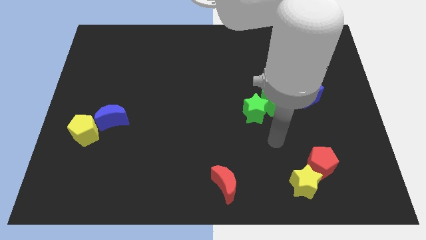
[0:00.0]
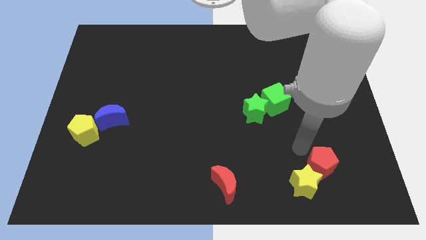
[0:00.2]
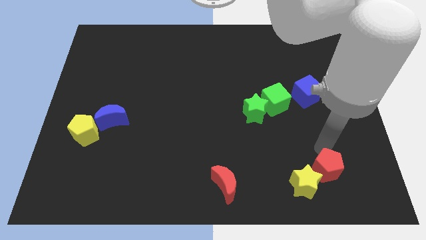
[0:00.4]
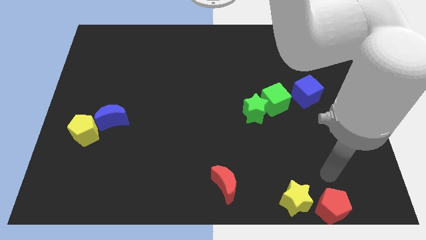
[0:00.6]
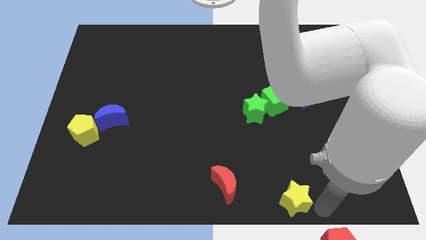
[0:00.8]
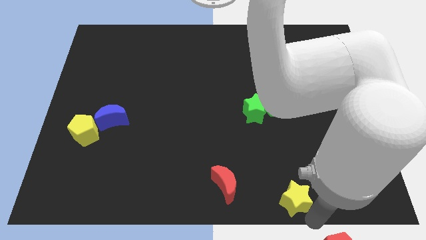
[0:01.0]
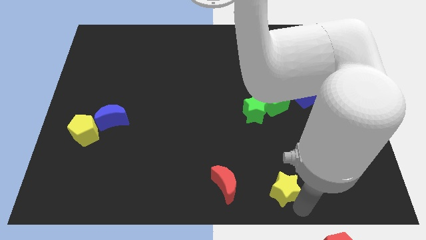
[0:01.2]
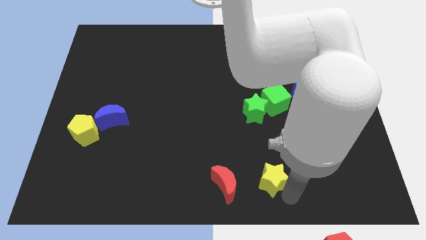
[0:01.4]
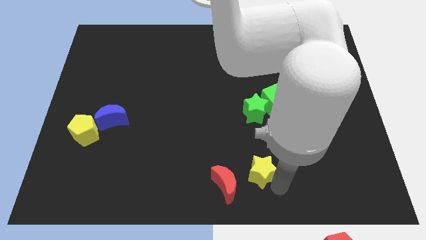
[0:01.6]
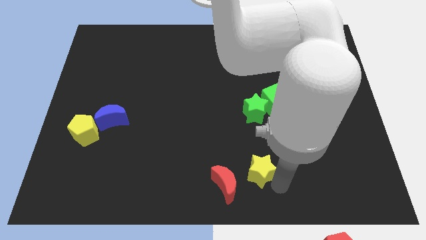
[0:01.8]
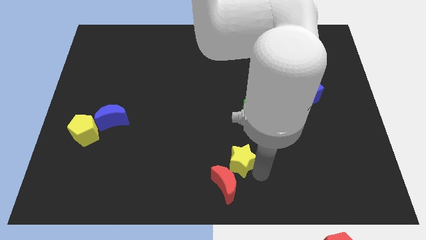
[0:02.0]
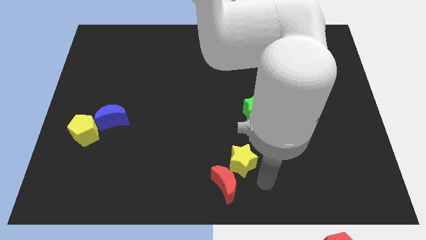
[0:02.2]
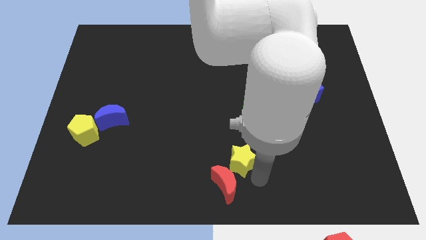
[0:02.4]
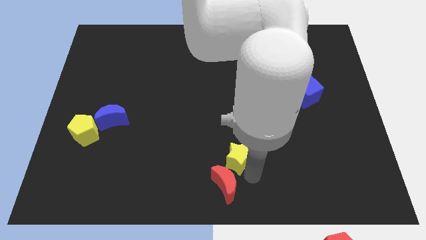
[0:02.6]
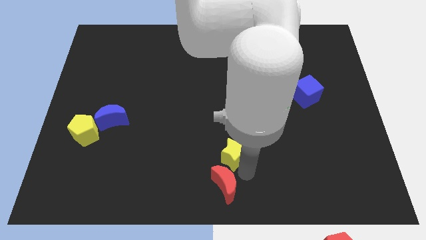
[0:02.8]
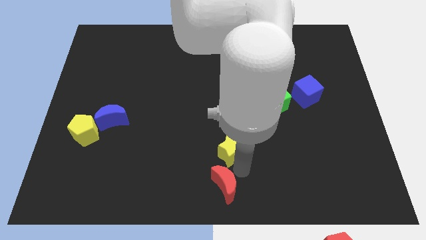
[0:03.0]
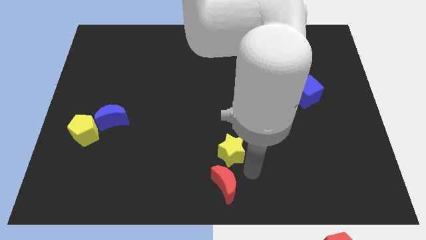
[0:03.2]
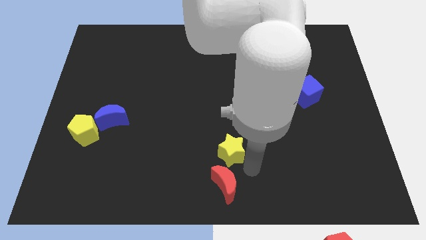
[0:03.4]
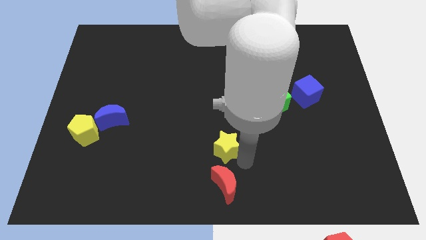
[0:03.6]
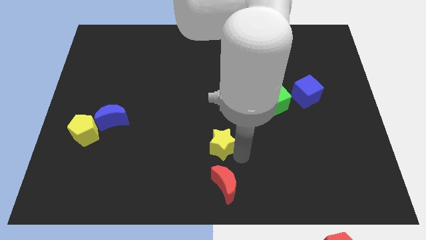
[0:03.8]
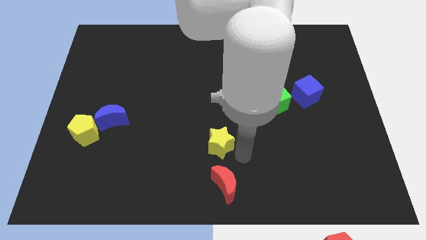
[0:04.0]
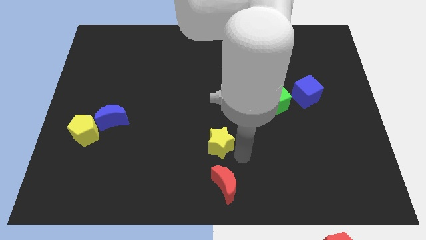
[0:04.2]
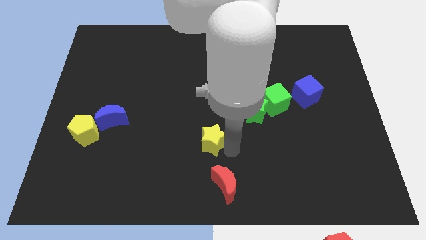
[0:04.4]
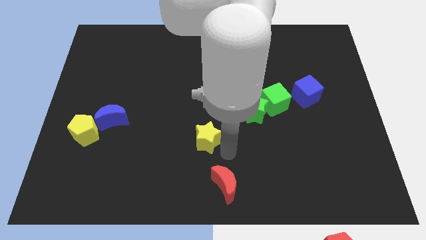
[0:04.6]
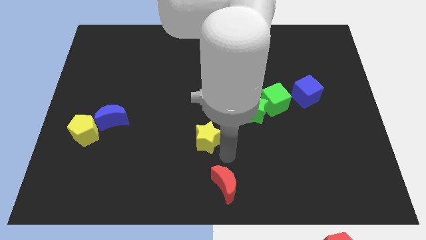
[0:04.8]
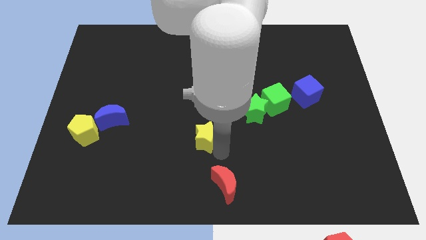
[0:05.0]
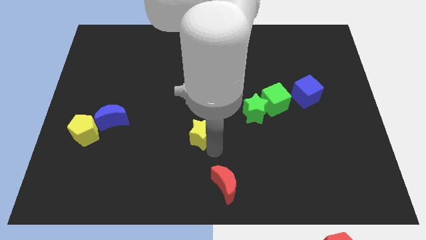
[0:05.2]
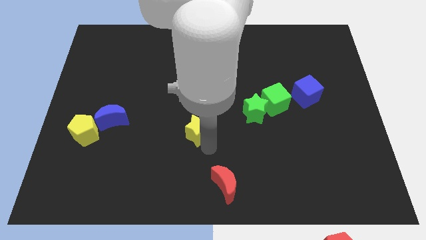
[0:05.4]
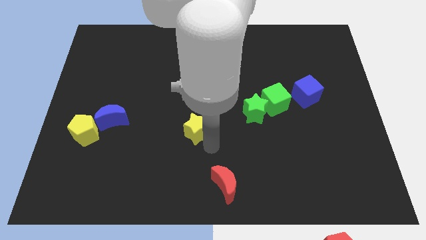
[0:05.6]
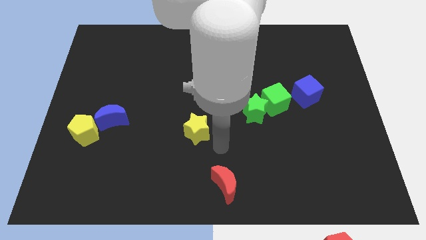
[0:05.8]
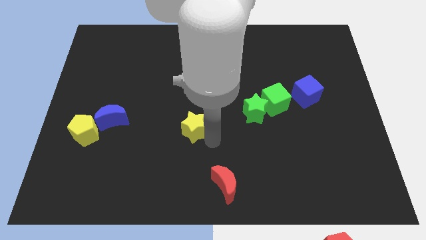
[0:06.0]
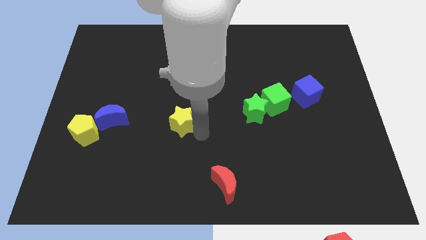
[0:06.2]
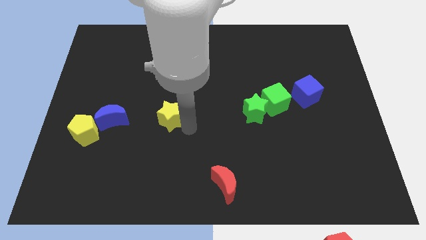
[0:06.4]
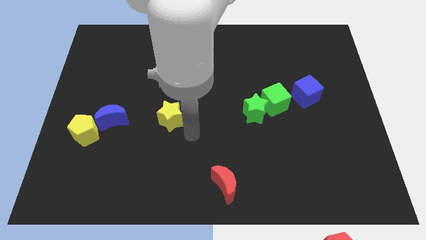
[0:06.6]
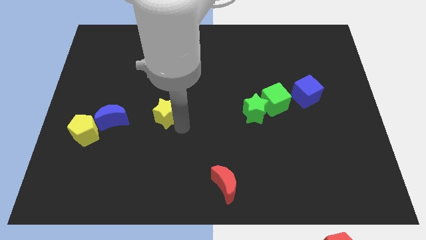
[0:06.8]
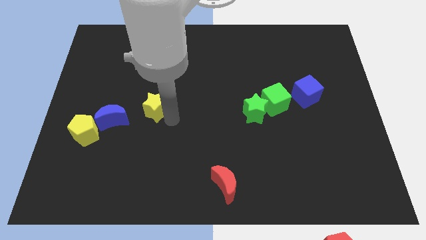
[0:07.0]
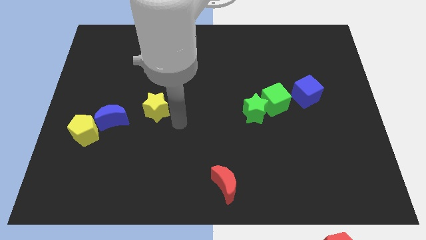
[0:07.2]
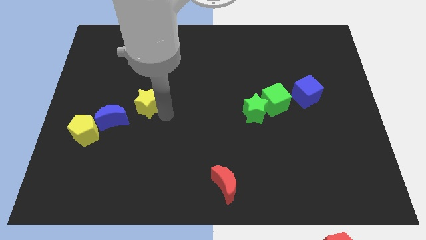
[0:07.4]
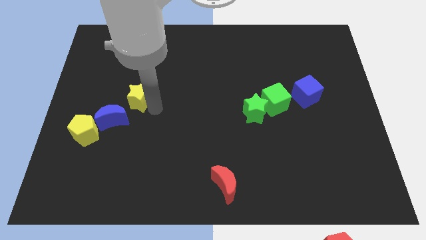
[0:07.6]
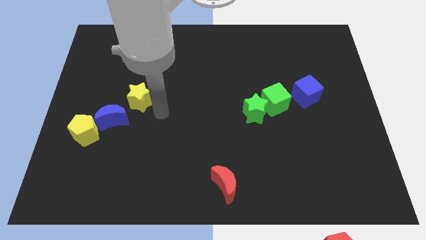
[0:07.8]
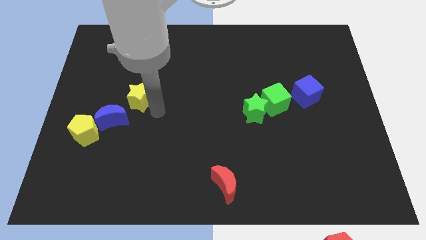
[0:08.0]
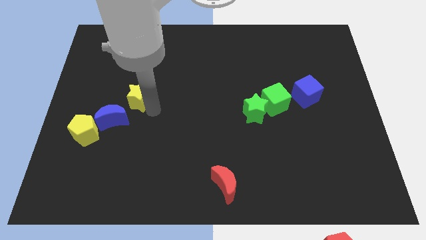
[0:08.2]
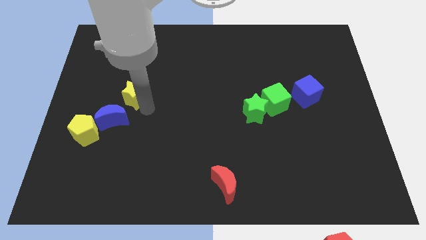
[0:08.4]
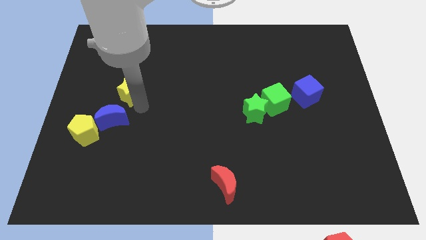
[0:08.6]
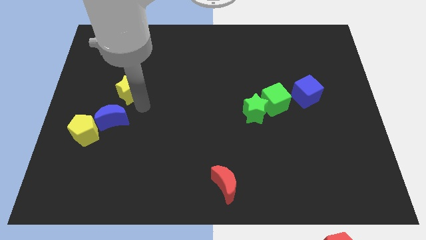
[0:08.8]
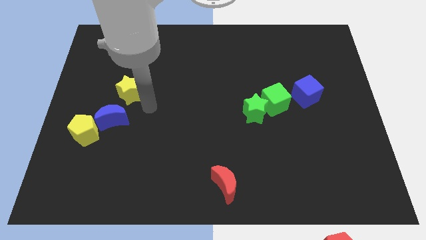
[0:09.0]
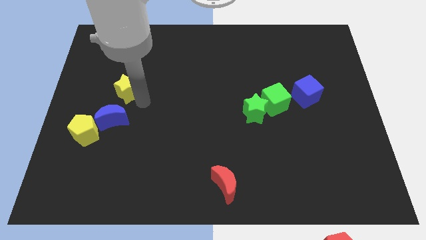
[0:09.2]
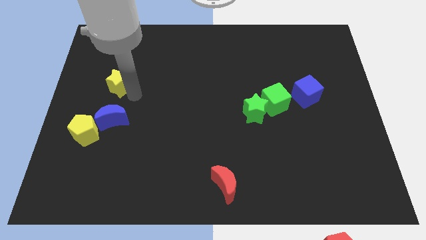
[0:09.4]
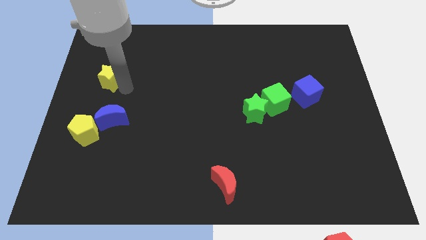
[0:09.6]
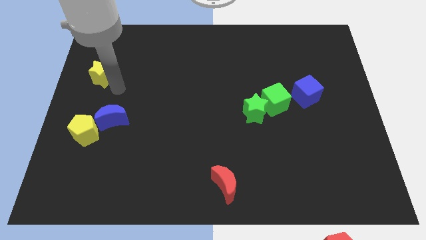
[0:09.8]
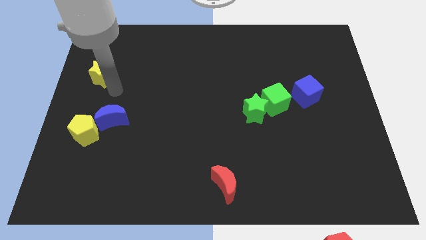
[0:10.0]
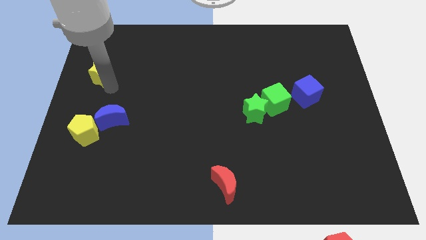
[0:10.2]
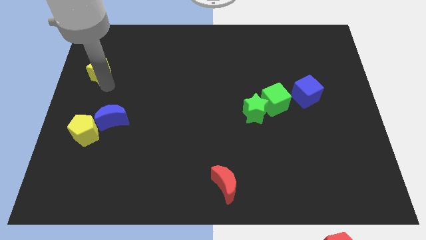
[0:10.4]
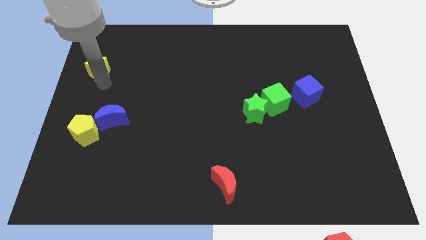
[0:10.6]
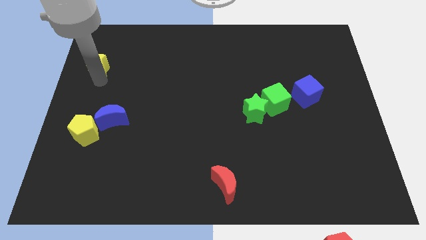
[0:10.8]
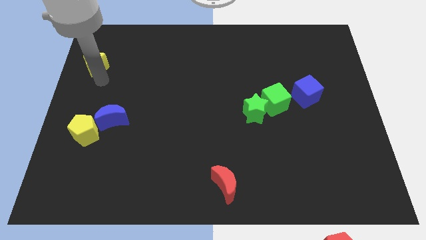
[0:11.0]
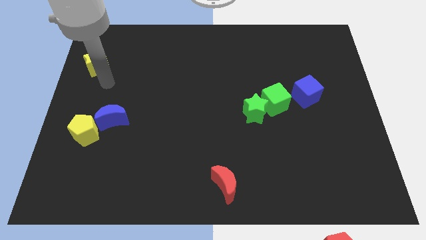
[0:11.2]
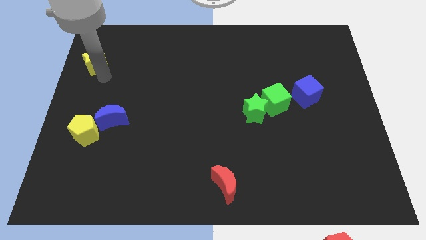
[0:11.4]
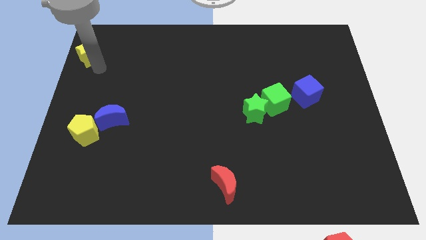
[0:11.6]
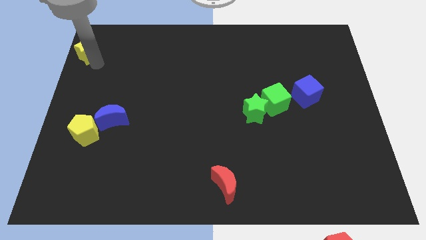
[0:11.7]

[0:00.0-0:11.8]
put the yellow star to the upper left corner

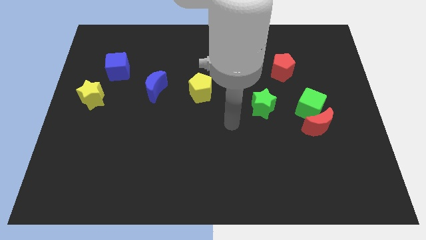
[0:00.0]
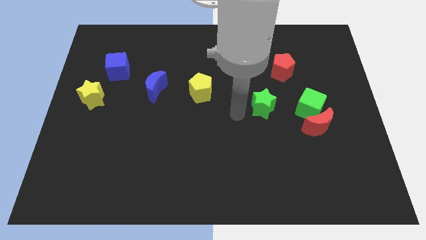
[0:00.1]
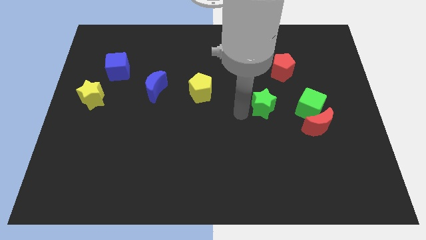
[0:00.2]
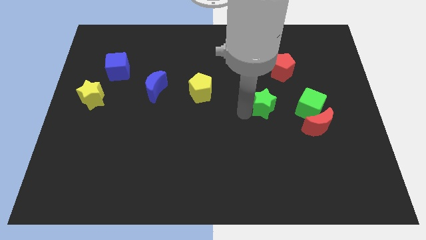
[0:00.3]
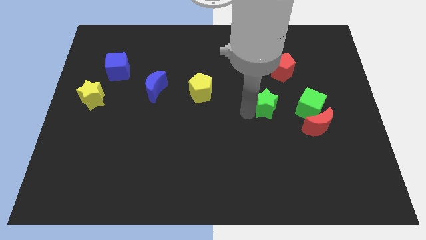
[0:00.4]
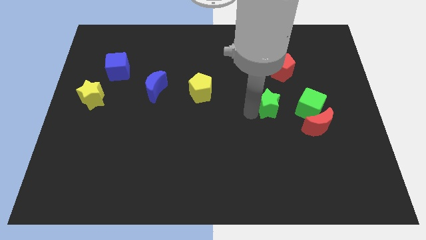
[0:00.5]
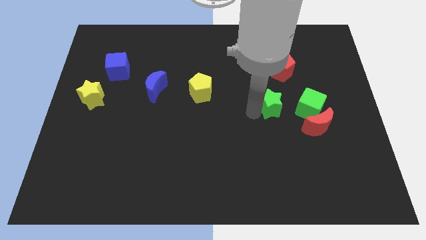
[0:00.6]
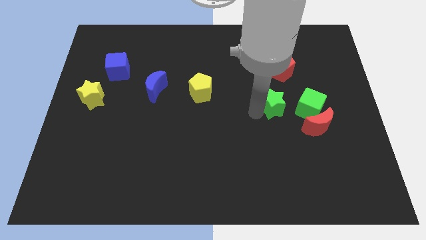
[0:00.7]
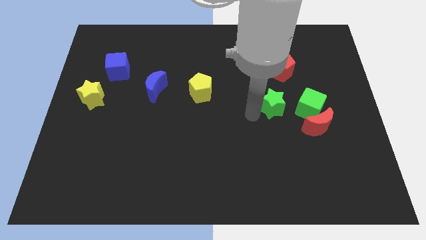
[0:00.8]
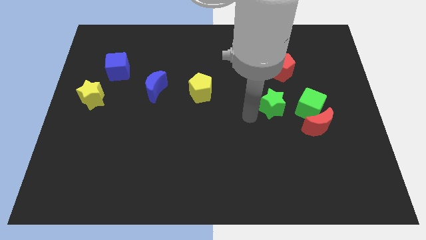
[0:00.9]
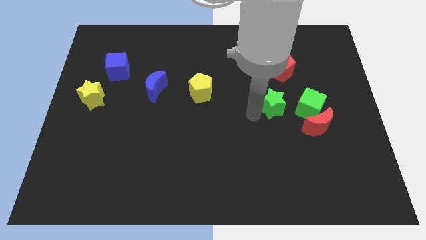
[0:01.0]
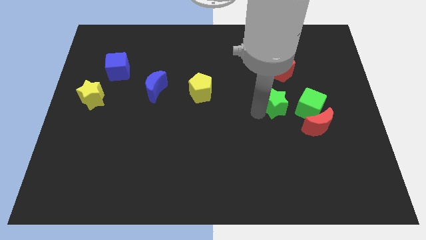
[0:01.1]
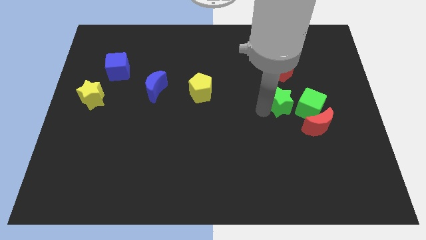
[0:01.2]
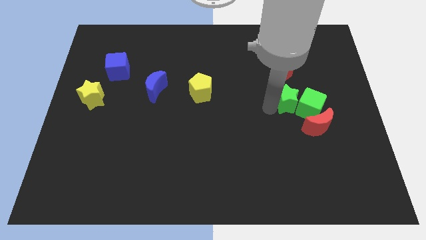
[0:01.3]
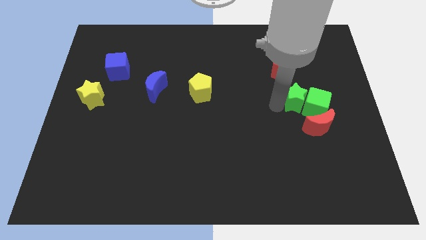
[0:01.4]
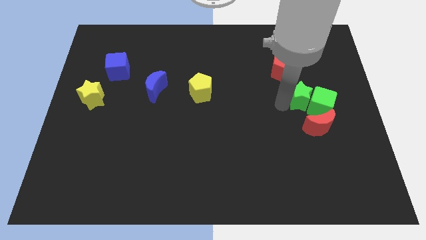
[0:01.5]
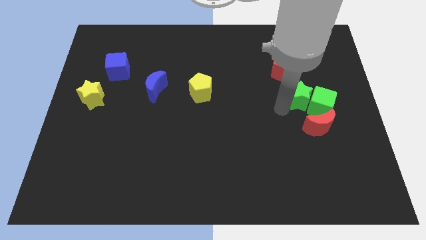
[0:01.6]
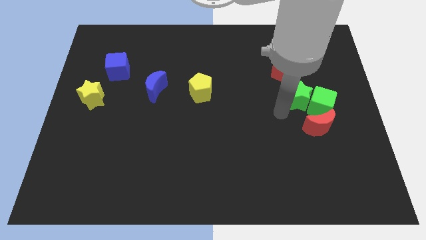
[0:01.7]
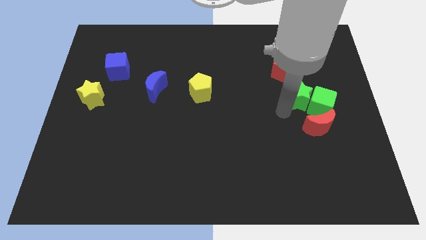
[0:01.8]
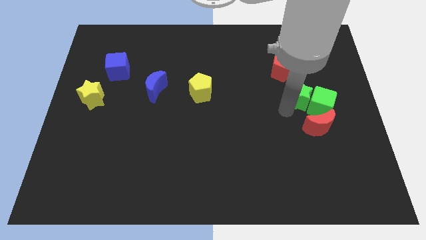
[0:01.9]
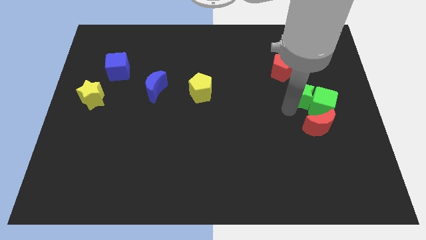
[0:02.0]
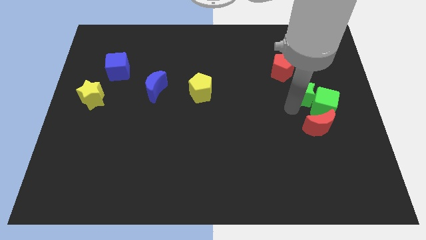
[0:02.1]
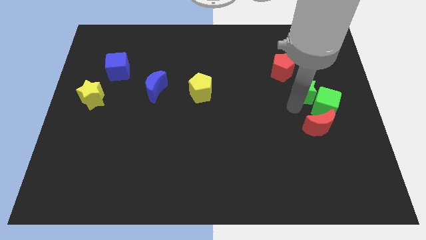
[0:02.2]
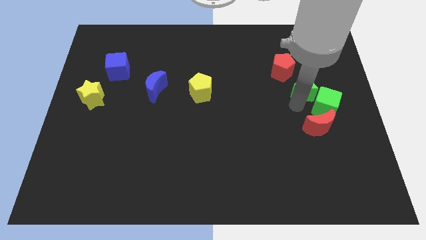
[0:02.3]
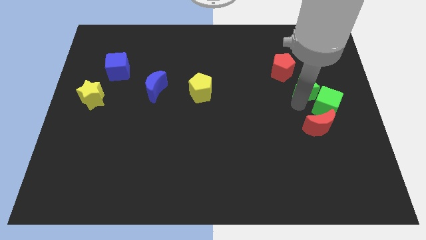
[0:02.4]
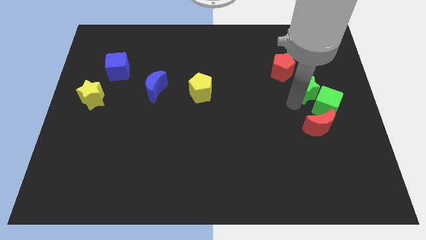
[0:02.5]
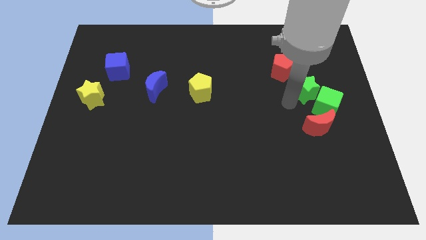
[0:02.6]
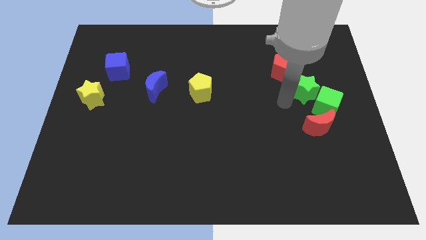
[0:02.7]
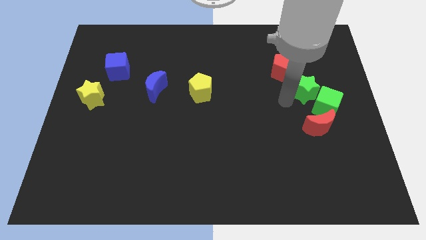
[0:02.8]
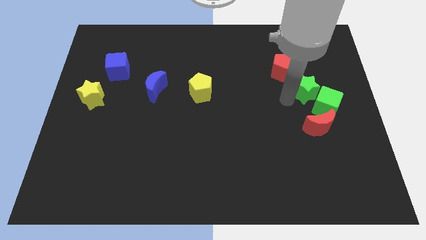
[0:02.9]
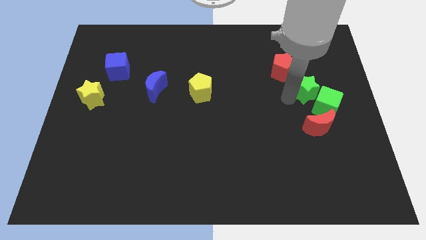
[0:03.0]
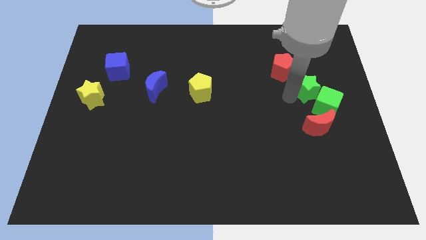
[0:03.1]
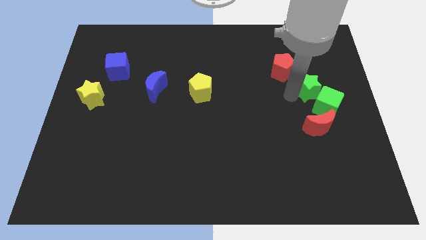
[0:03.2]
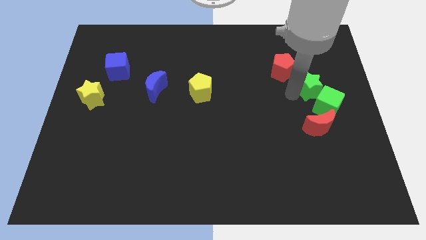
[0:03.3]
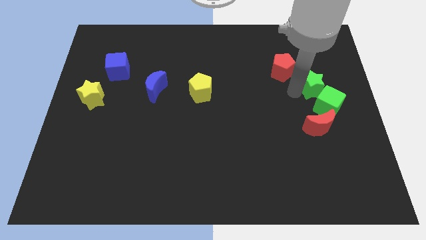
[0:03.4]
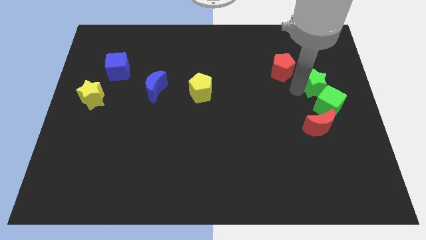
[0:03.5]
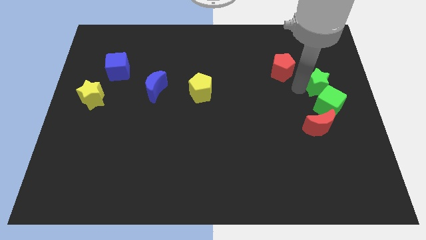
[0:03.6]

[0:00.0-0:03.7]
slide the green star to the right side of the board
